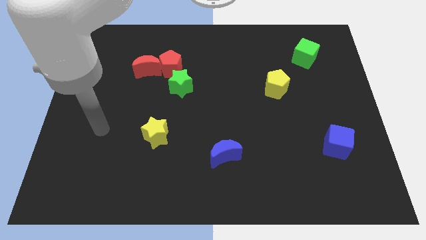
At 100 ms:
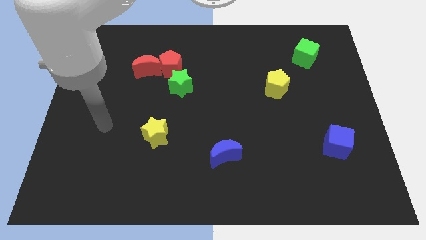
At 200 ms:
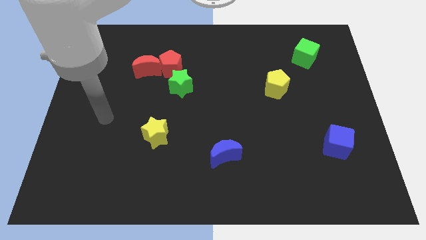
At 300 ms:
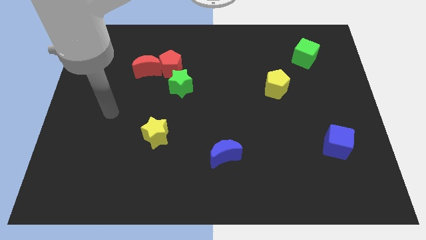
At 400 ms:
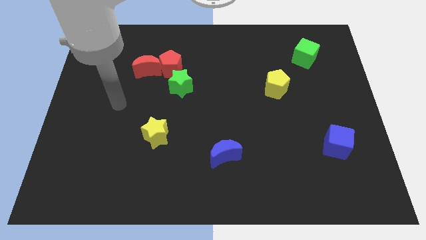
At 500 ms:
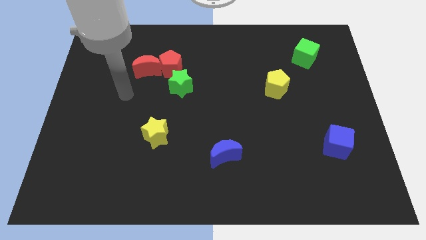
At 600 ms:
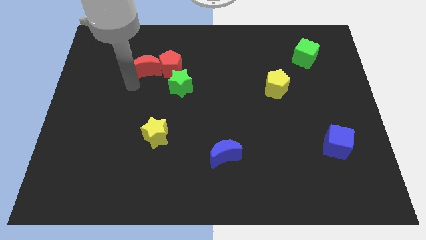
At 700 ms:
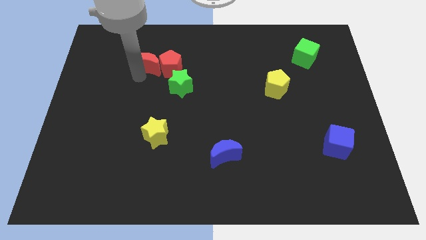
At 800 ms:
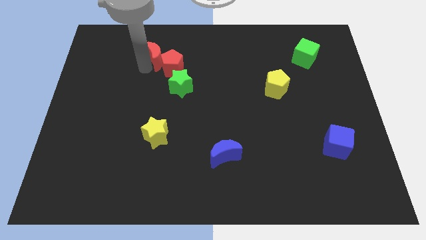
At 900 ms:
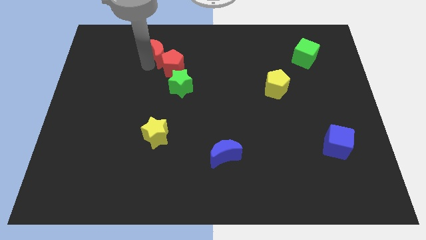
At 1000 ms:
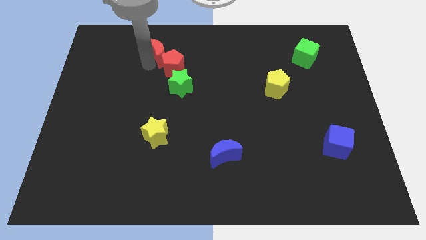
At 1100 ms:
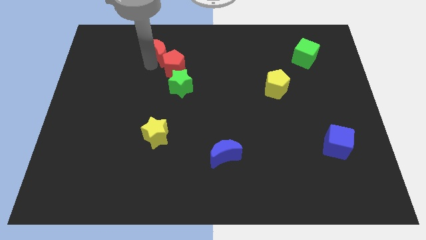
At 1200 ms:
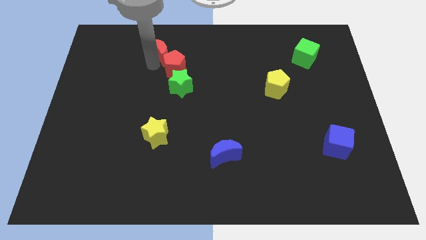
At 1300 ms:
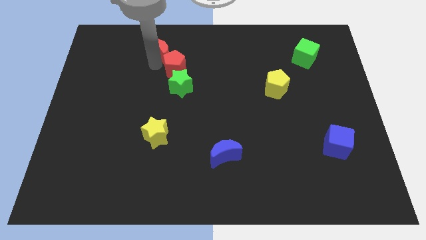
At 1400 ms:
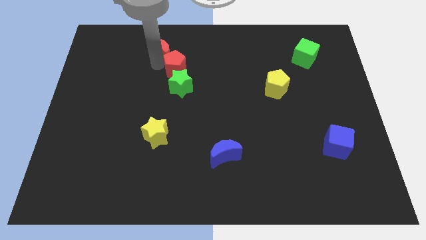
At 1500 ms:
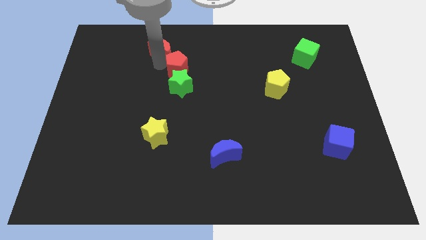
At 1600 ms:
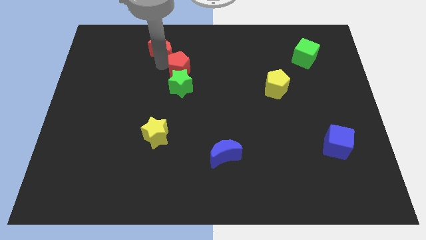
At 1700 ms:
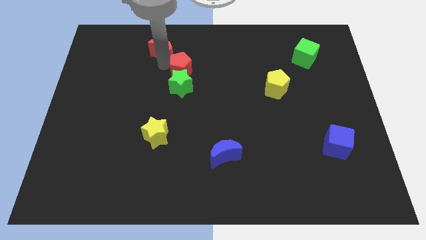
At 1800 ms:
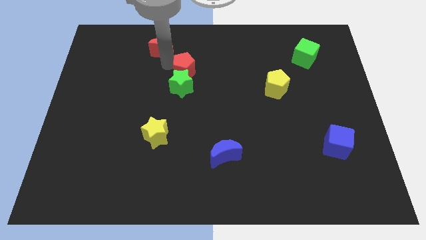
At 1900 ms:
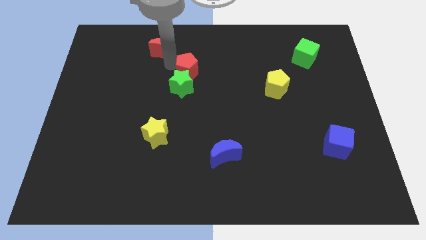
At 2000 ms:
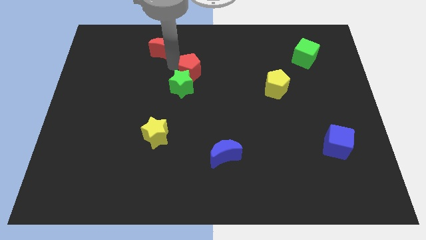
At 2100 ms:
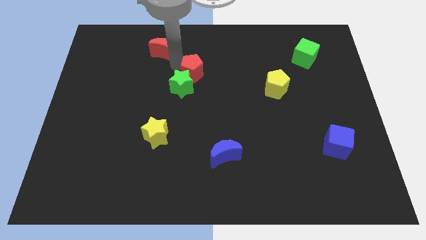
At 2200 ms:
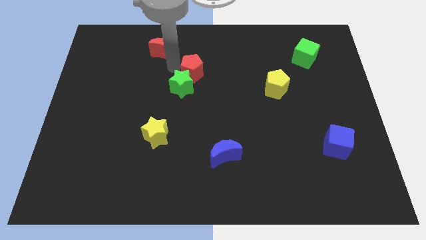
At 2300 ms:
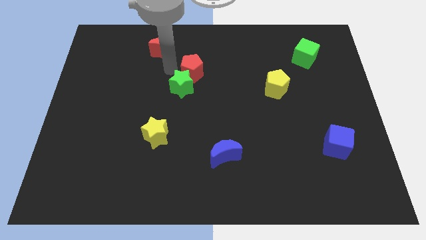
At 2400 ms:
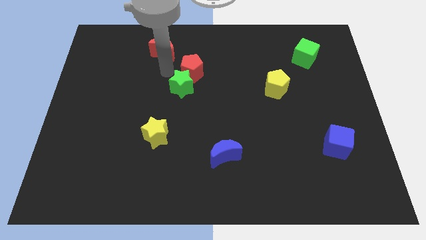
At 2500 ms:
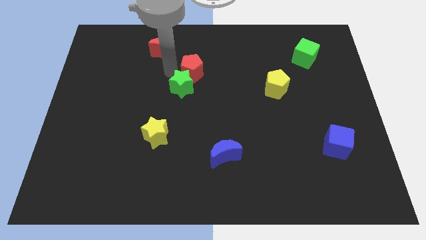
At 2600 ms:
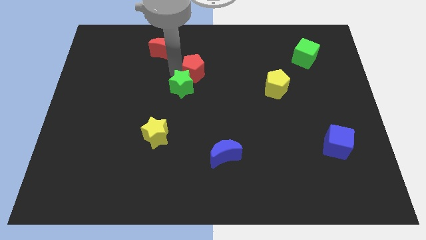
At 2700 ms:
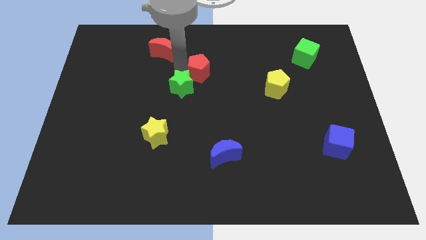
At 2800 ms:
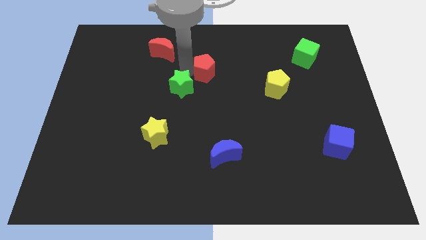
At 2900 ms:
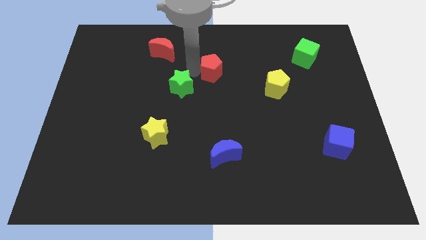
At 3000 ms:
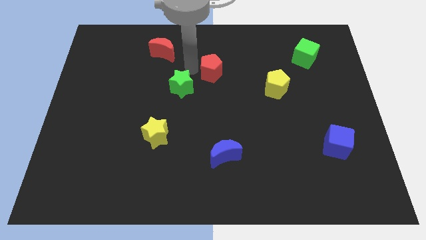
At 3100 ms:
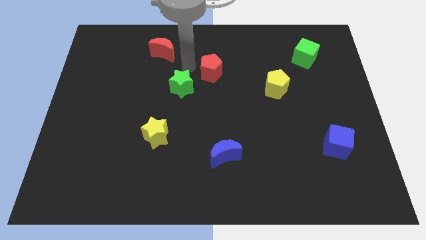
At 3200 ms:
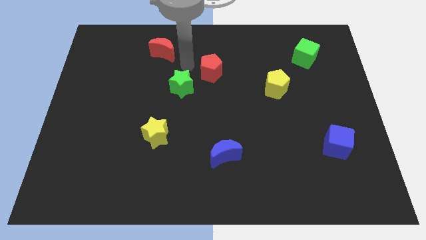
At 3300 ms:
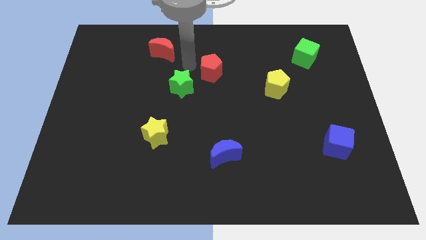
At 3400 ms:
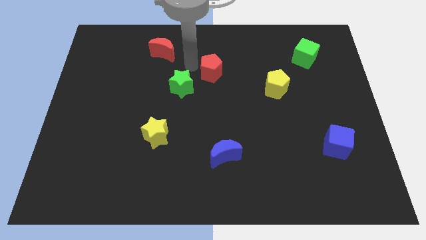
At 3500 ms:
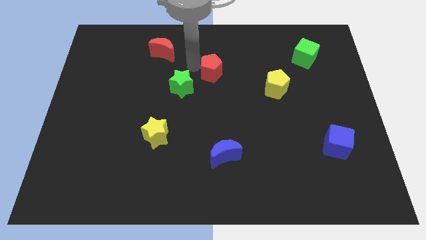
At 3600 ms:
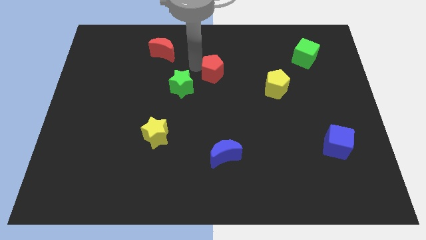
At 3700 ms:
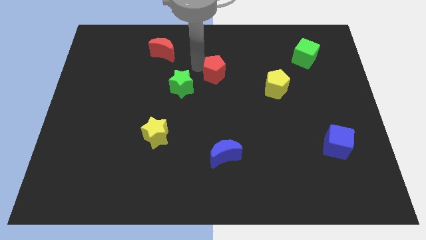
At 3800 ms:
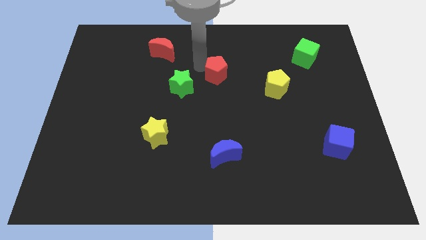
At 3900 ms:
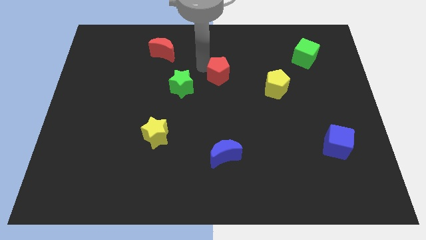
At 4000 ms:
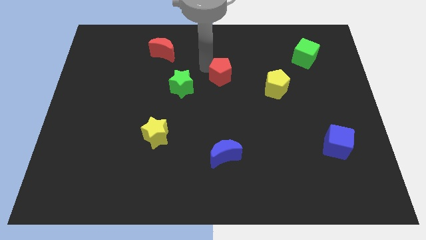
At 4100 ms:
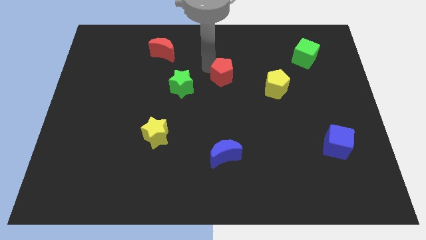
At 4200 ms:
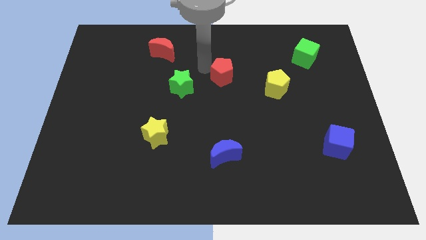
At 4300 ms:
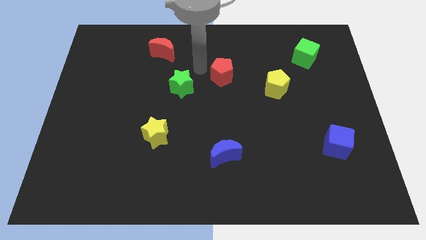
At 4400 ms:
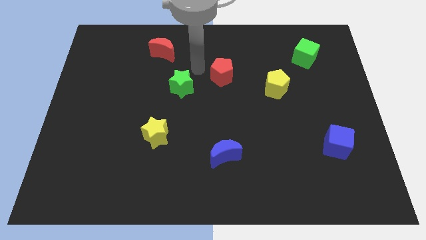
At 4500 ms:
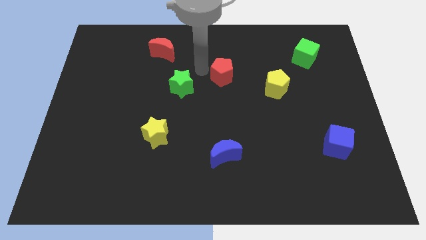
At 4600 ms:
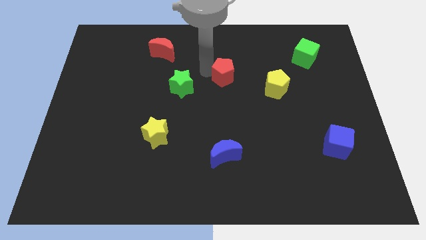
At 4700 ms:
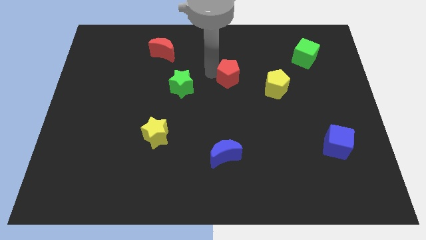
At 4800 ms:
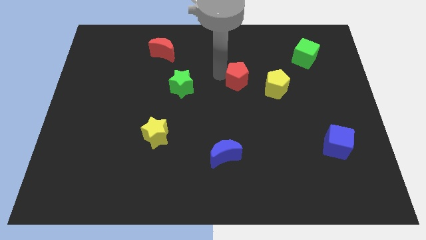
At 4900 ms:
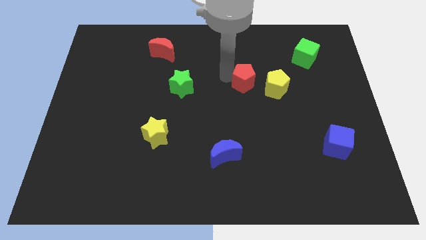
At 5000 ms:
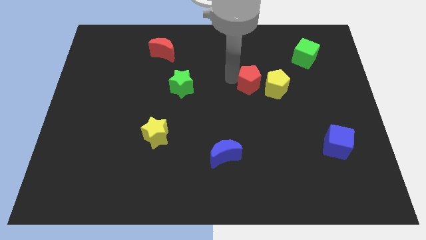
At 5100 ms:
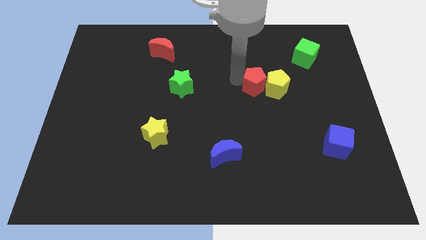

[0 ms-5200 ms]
put the red pentagon next to the yellow pentagon

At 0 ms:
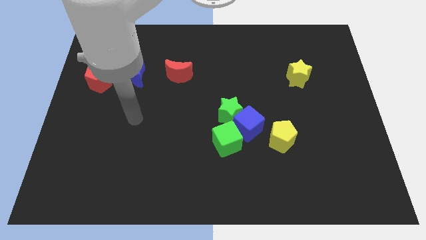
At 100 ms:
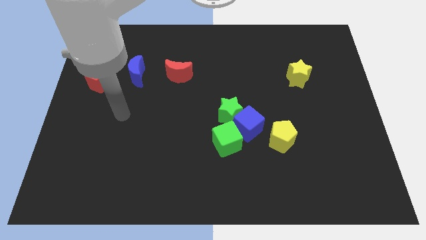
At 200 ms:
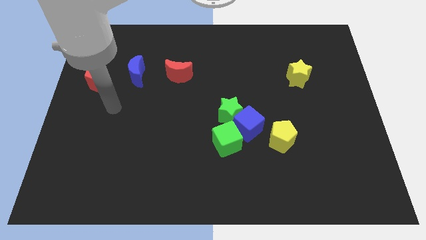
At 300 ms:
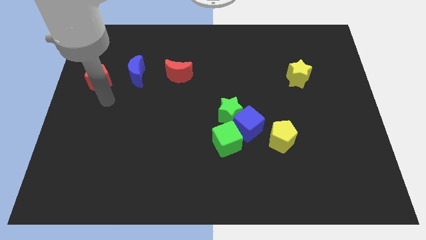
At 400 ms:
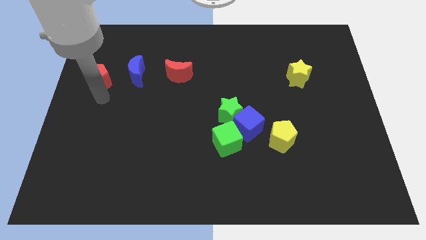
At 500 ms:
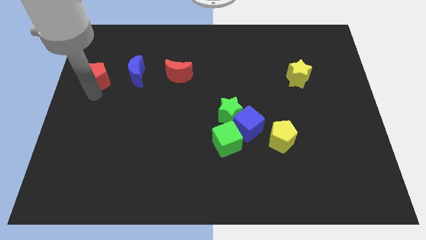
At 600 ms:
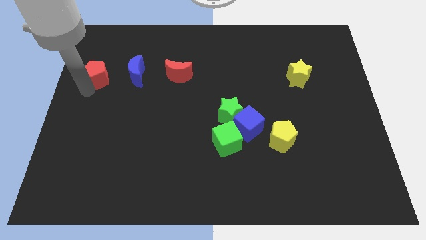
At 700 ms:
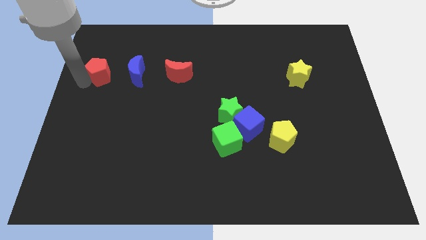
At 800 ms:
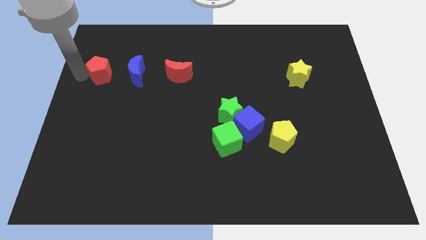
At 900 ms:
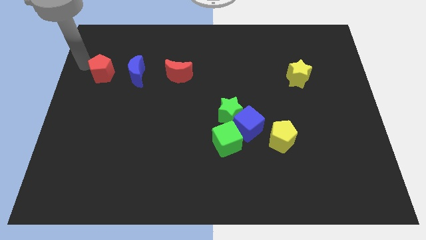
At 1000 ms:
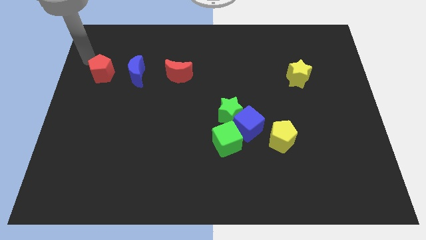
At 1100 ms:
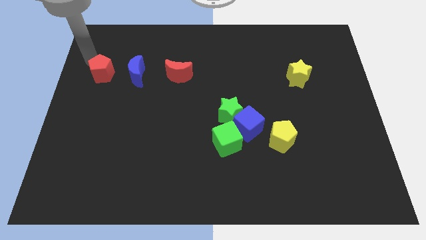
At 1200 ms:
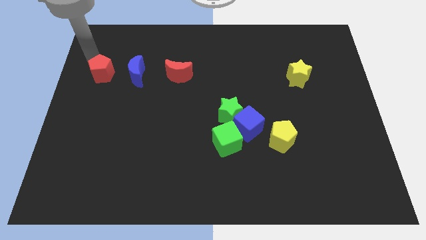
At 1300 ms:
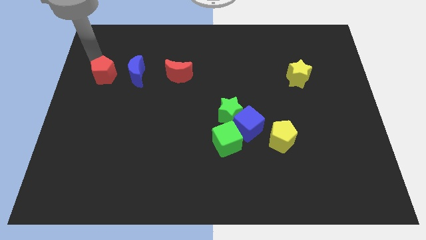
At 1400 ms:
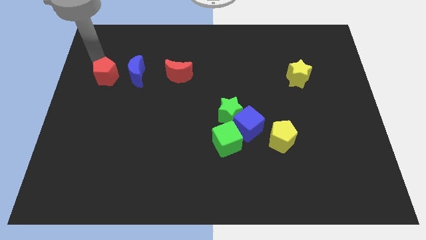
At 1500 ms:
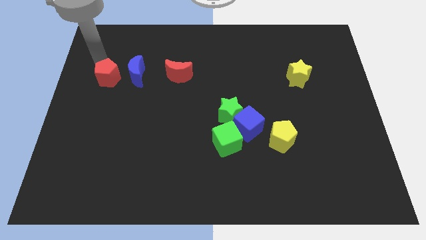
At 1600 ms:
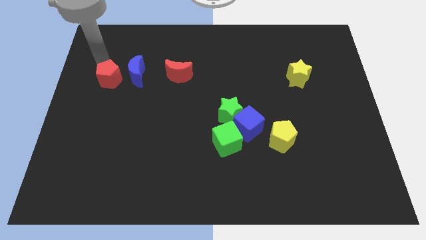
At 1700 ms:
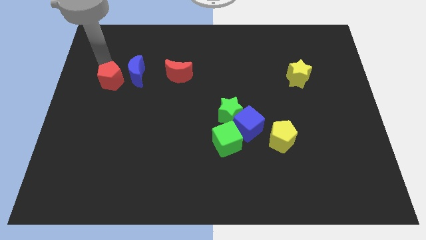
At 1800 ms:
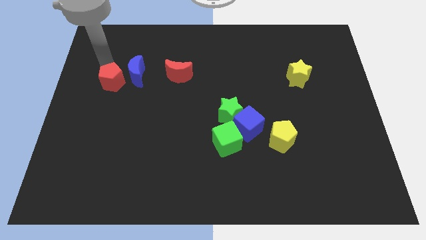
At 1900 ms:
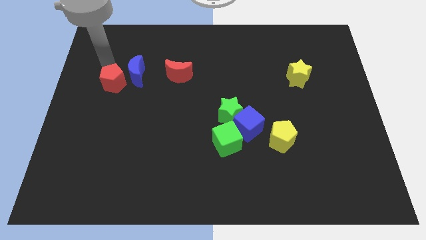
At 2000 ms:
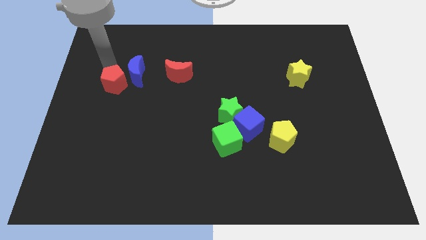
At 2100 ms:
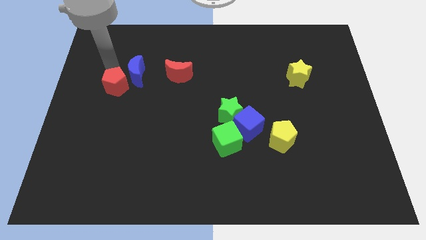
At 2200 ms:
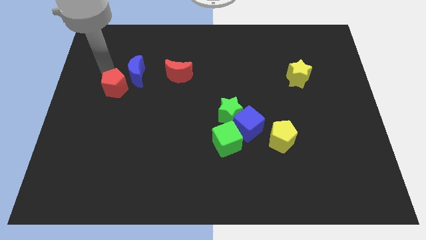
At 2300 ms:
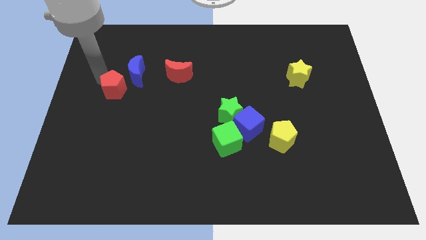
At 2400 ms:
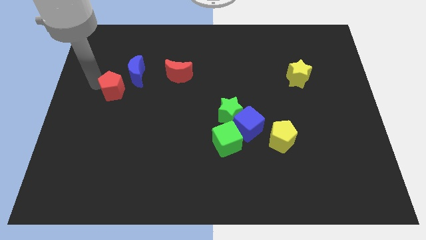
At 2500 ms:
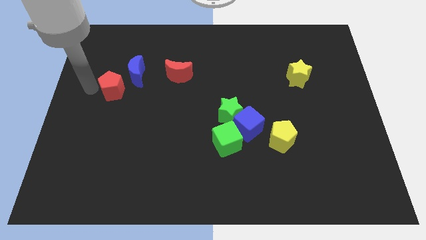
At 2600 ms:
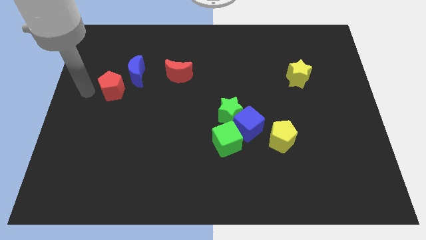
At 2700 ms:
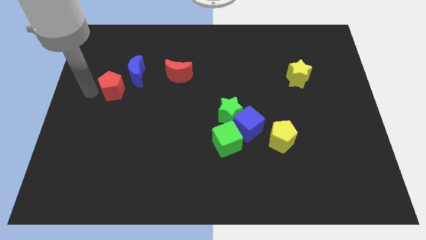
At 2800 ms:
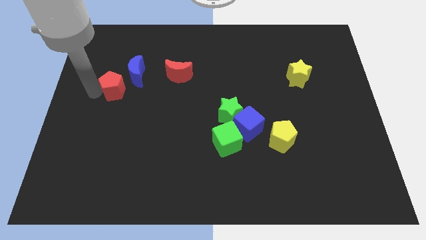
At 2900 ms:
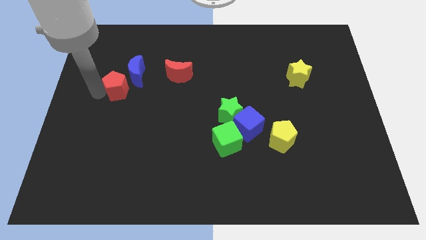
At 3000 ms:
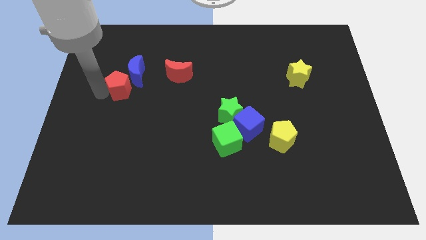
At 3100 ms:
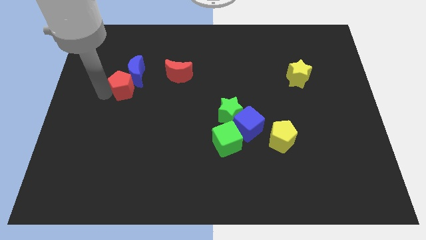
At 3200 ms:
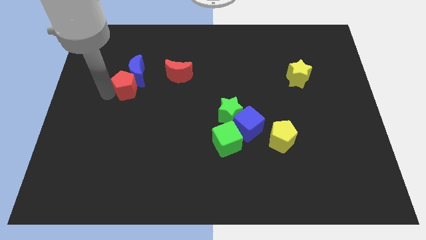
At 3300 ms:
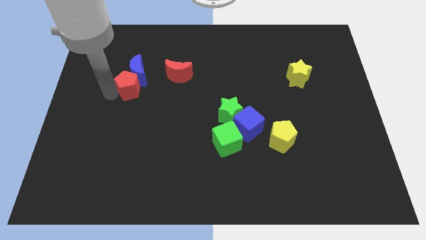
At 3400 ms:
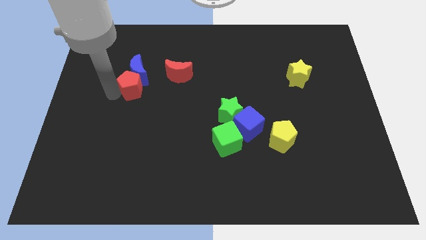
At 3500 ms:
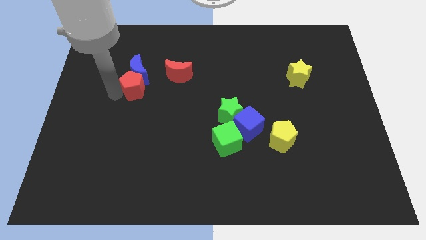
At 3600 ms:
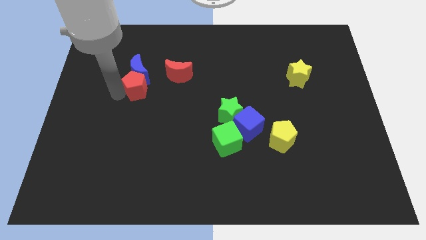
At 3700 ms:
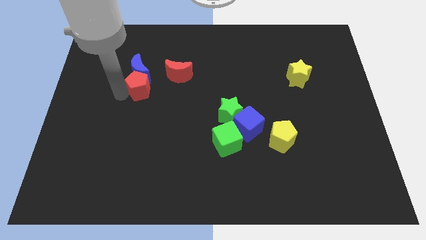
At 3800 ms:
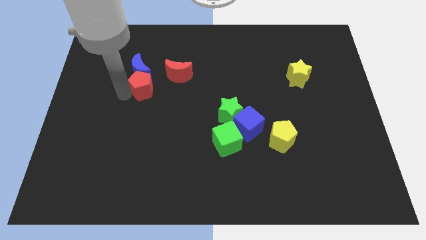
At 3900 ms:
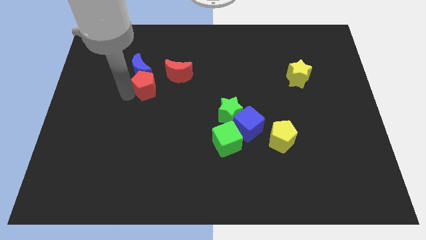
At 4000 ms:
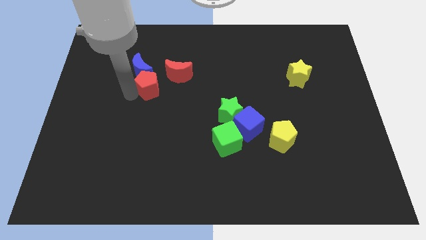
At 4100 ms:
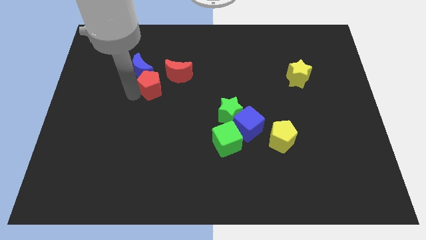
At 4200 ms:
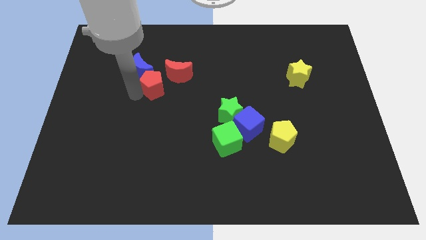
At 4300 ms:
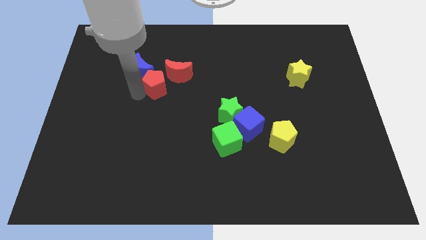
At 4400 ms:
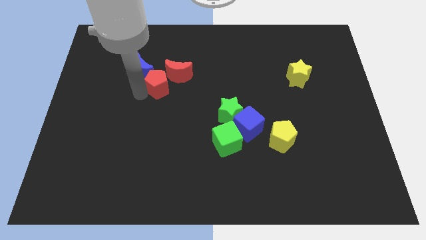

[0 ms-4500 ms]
move the red pentagon next to the red moon
